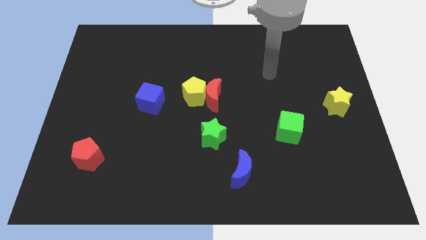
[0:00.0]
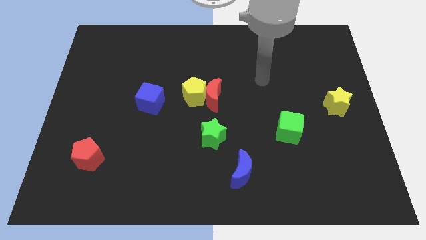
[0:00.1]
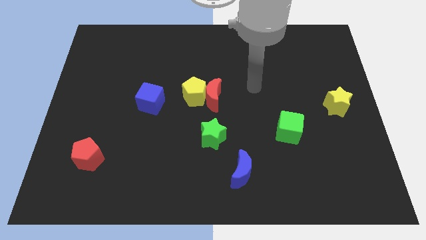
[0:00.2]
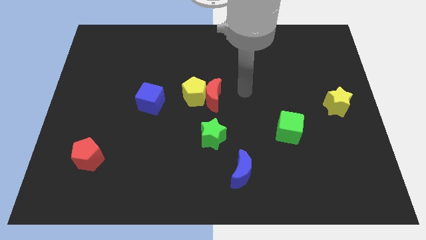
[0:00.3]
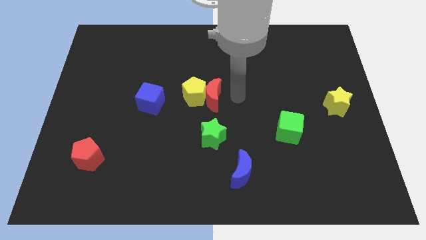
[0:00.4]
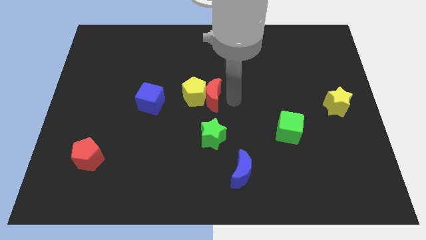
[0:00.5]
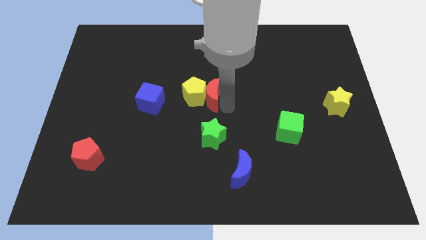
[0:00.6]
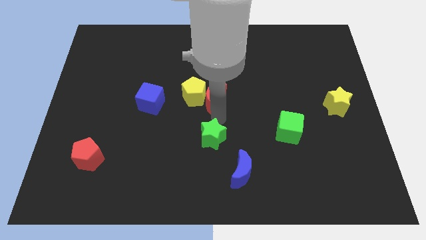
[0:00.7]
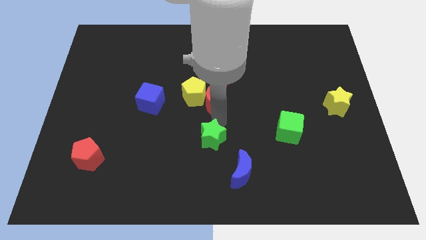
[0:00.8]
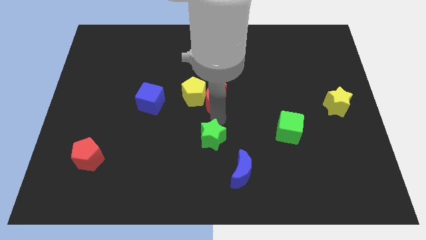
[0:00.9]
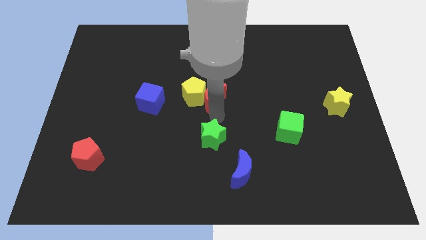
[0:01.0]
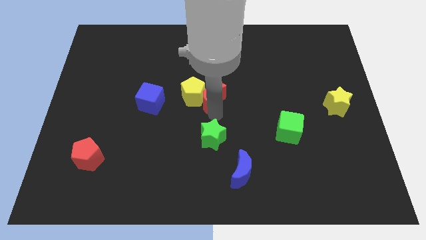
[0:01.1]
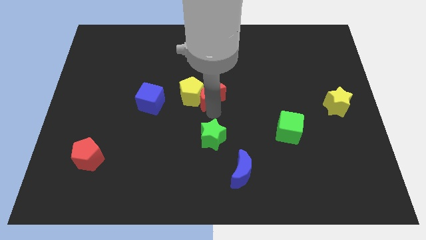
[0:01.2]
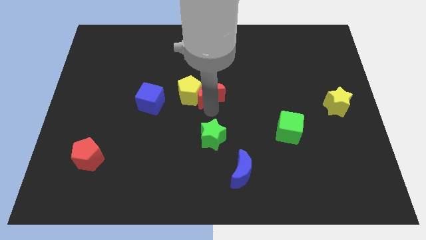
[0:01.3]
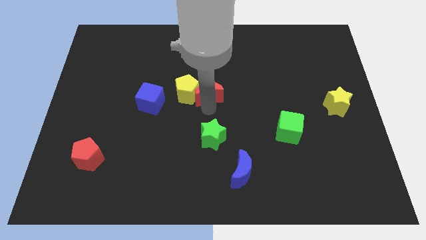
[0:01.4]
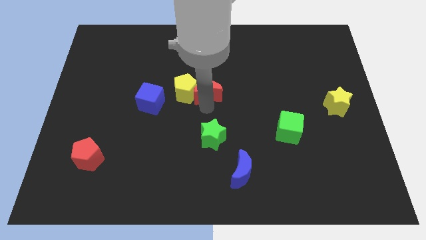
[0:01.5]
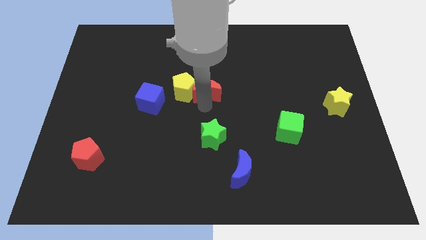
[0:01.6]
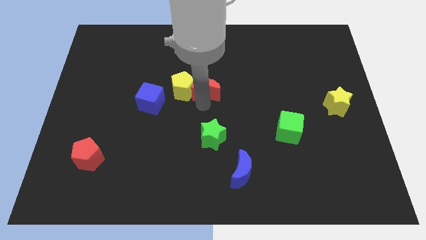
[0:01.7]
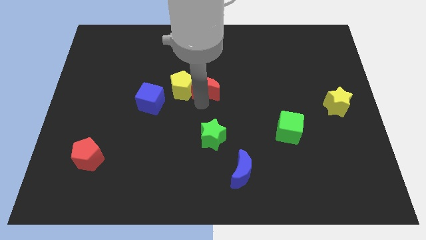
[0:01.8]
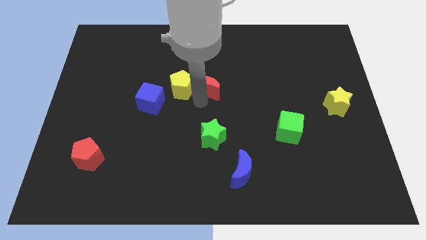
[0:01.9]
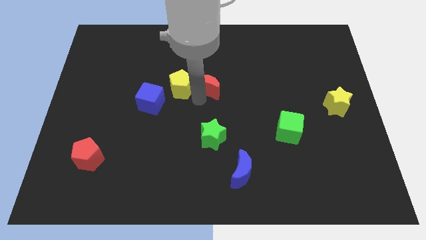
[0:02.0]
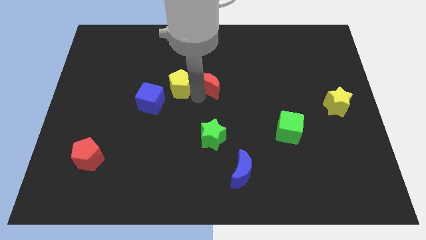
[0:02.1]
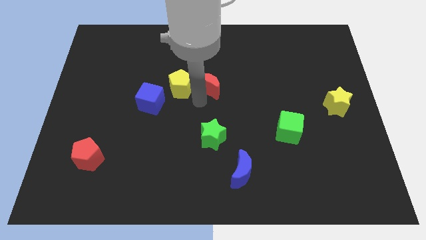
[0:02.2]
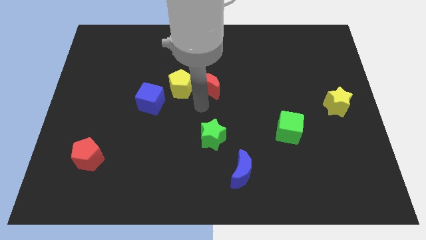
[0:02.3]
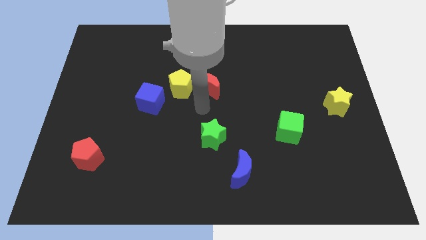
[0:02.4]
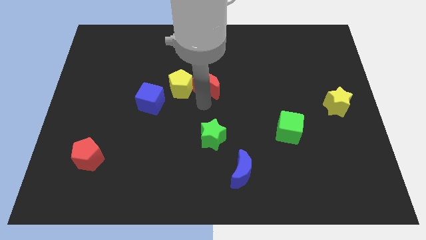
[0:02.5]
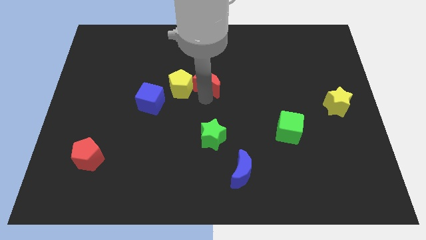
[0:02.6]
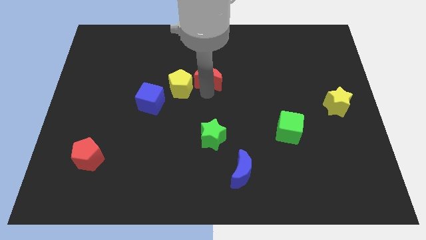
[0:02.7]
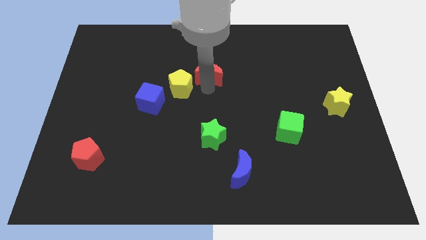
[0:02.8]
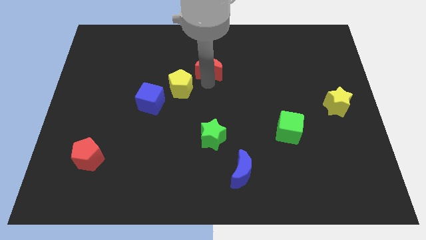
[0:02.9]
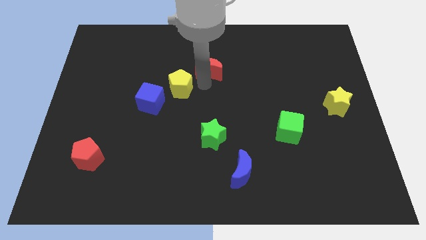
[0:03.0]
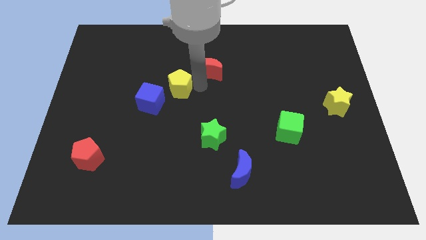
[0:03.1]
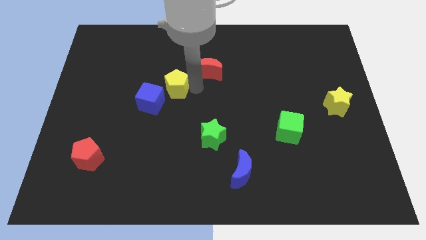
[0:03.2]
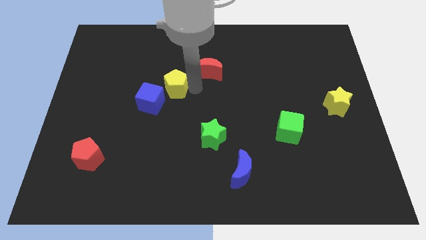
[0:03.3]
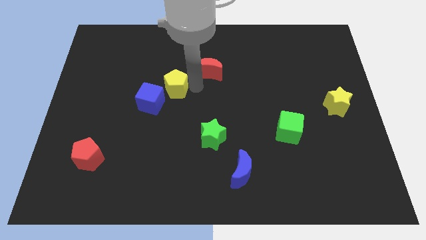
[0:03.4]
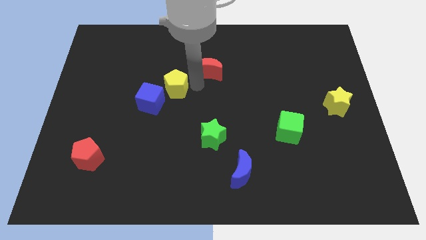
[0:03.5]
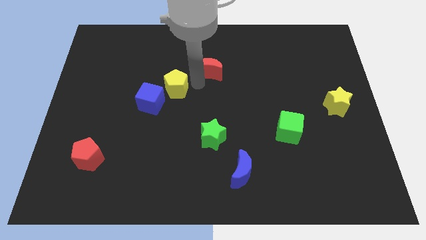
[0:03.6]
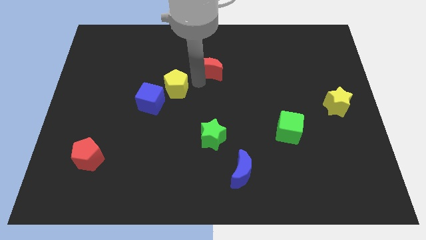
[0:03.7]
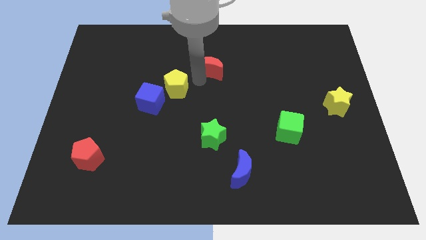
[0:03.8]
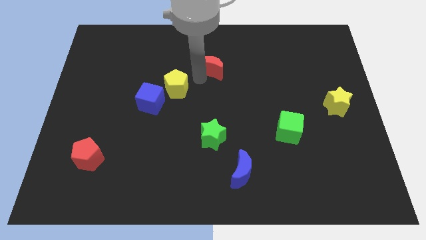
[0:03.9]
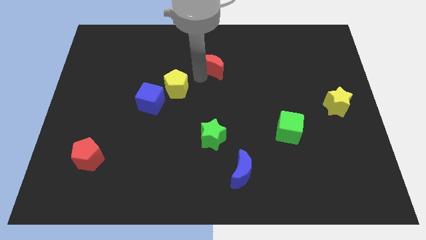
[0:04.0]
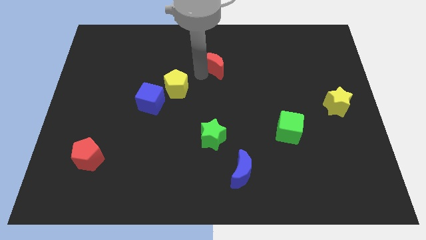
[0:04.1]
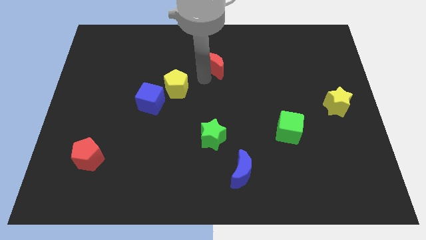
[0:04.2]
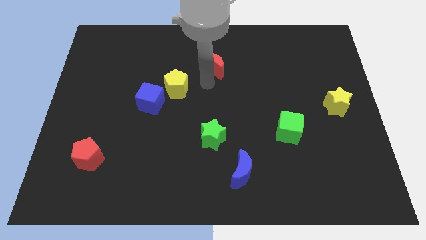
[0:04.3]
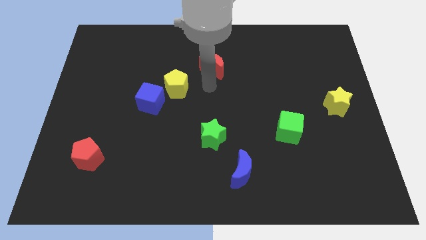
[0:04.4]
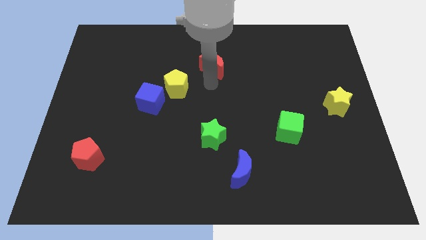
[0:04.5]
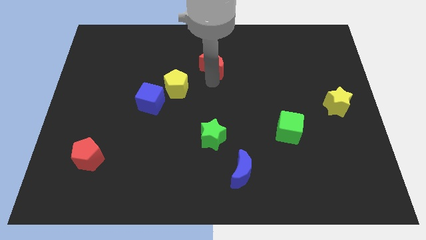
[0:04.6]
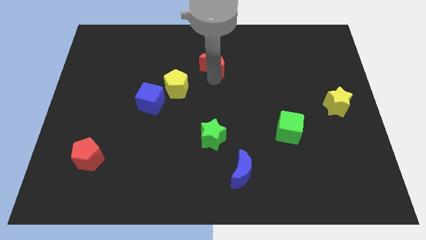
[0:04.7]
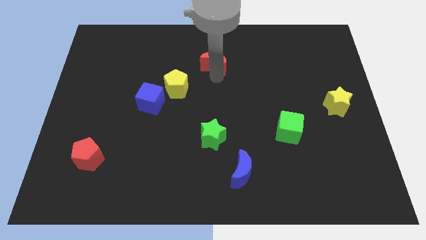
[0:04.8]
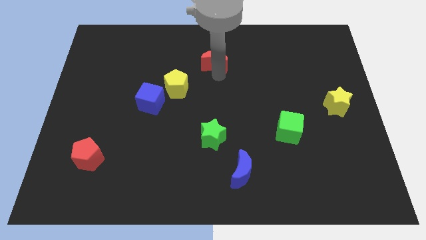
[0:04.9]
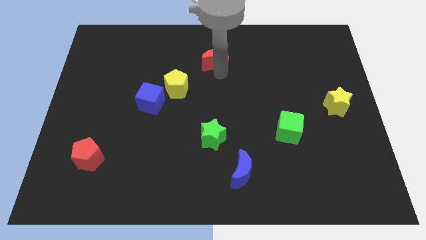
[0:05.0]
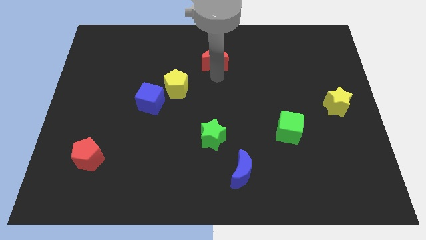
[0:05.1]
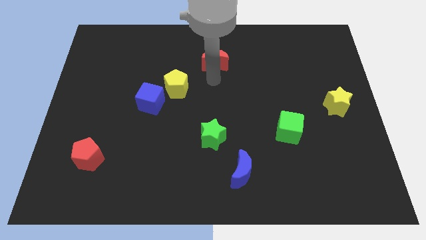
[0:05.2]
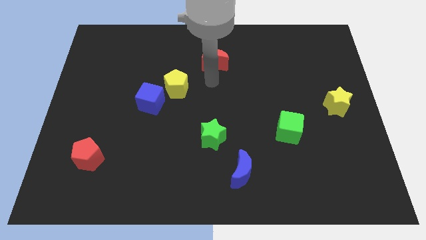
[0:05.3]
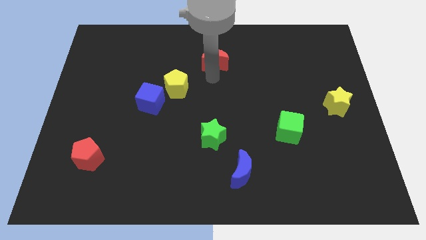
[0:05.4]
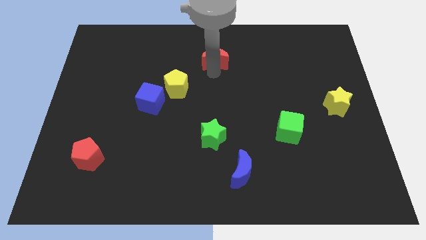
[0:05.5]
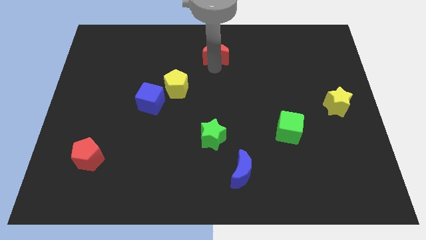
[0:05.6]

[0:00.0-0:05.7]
slide the red moon to the top

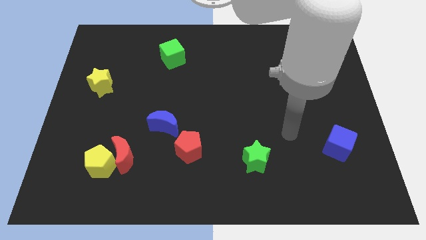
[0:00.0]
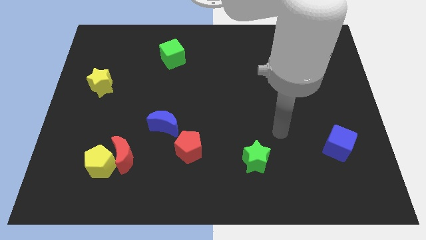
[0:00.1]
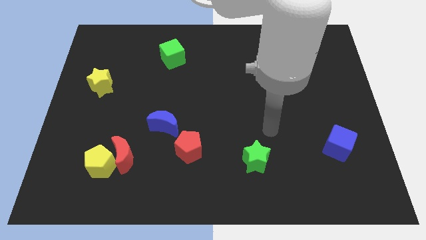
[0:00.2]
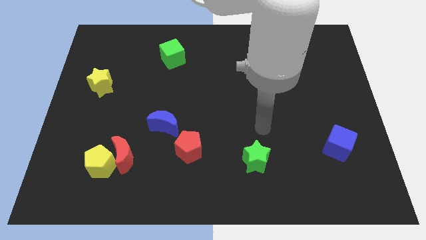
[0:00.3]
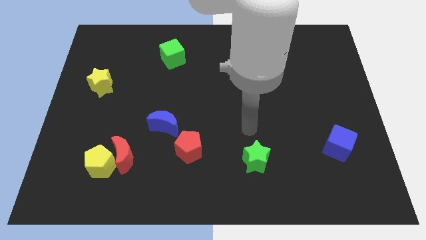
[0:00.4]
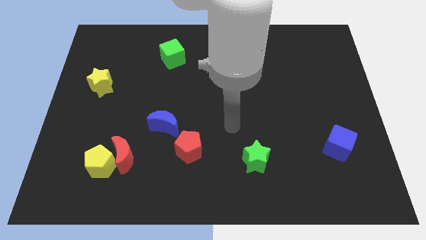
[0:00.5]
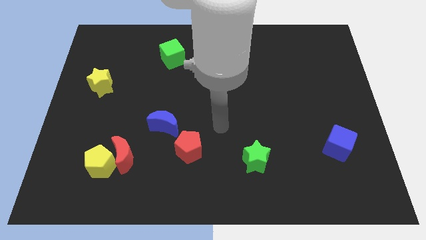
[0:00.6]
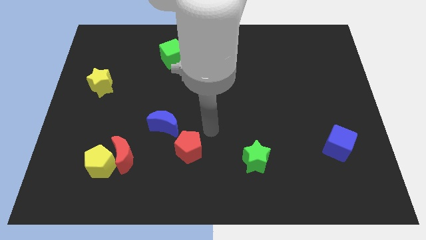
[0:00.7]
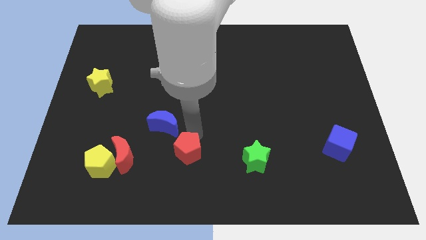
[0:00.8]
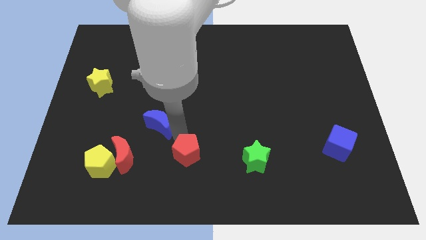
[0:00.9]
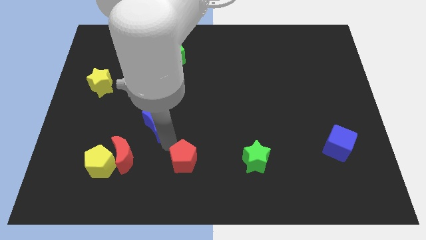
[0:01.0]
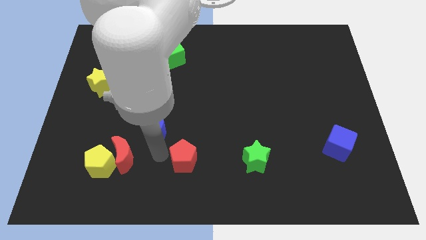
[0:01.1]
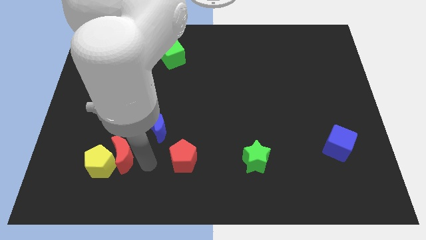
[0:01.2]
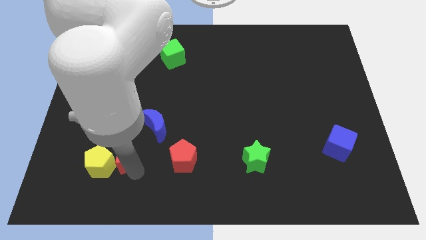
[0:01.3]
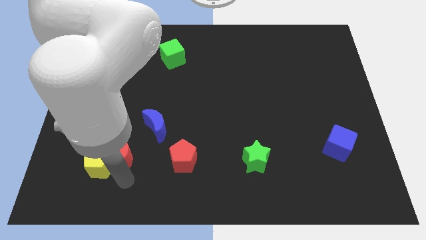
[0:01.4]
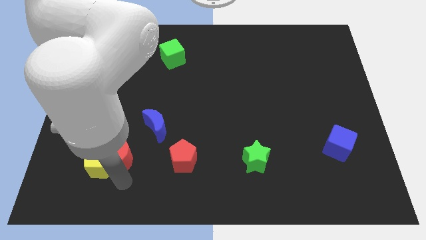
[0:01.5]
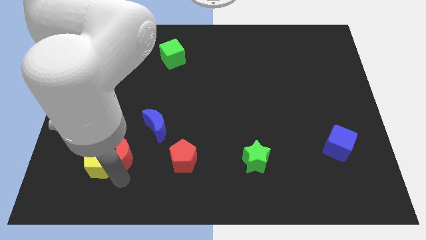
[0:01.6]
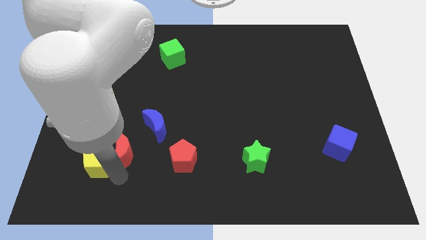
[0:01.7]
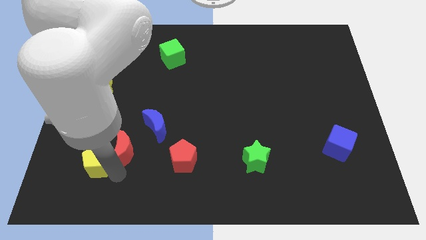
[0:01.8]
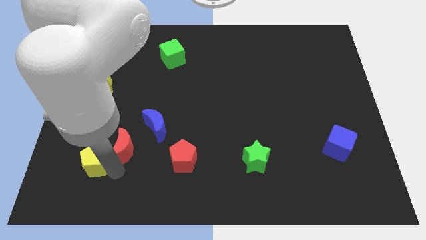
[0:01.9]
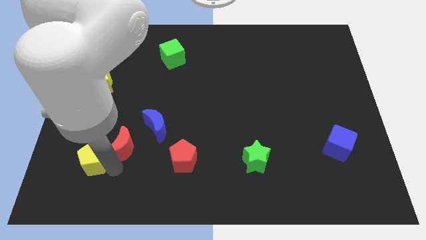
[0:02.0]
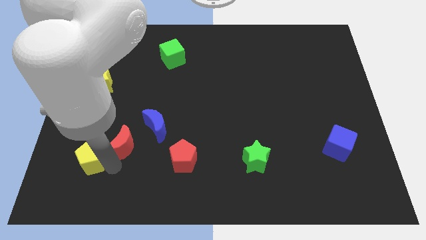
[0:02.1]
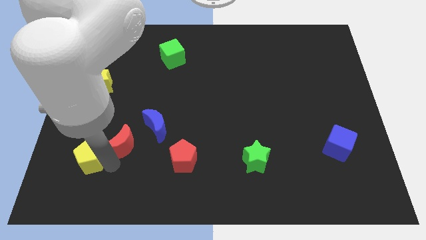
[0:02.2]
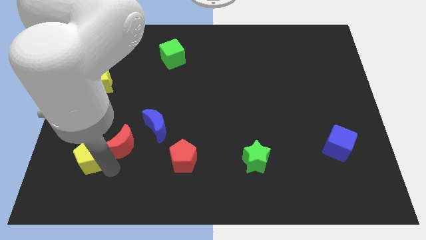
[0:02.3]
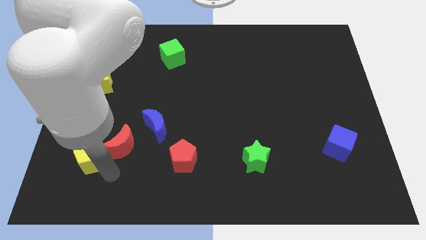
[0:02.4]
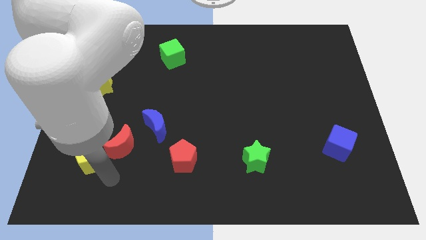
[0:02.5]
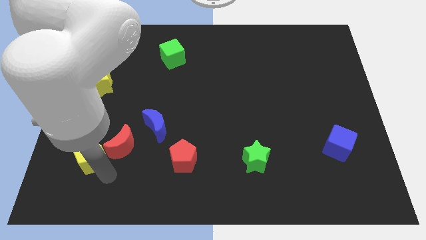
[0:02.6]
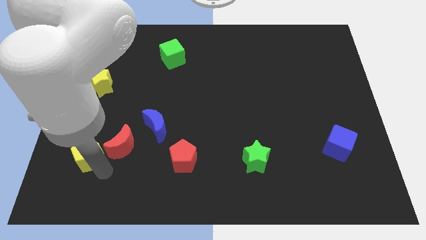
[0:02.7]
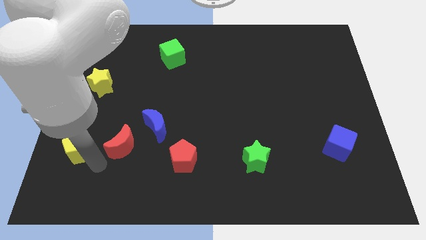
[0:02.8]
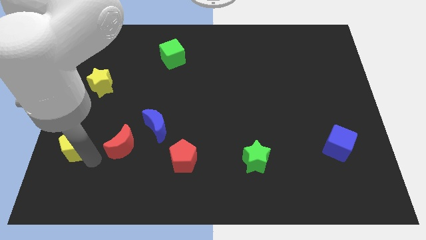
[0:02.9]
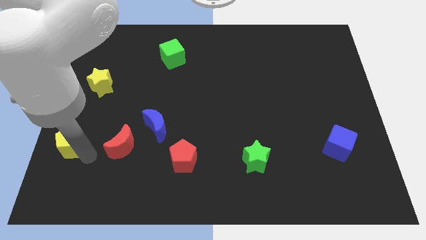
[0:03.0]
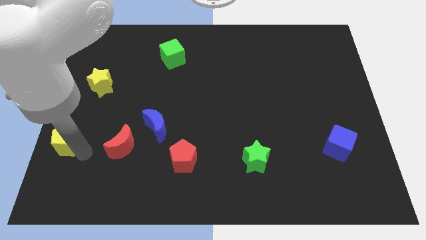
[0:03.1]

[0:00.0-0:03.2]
push the yellow pentagon to the left side
